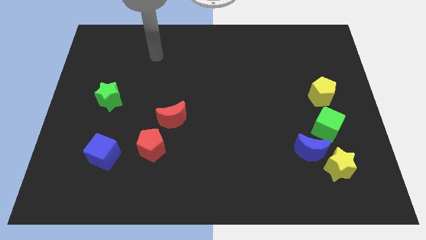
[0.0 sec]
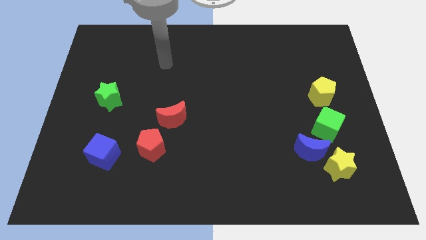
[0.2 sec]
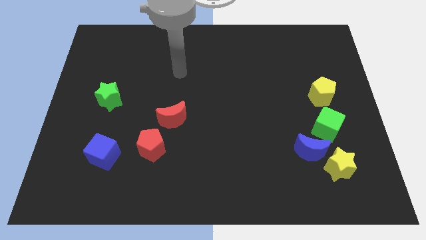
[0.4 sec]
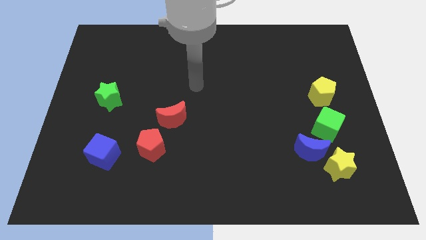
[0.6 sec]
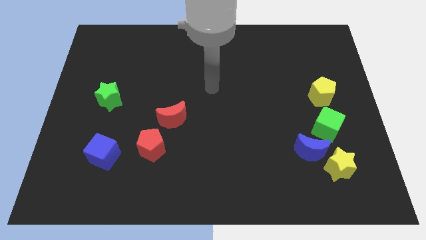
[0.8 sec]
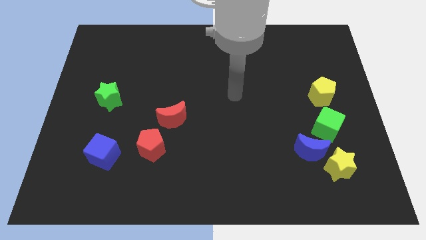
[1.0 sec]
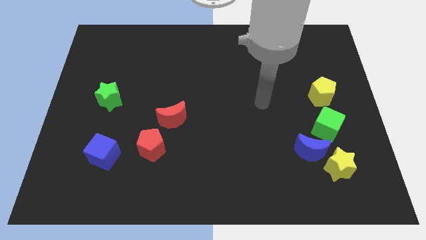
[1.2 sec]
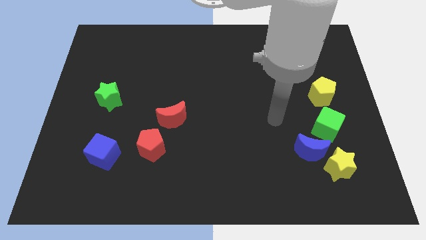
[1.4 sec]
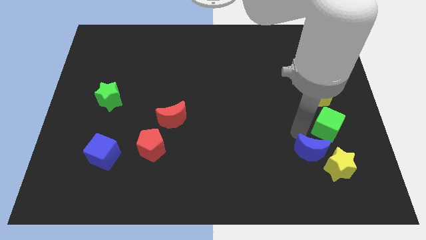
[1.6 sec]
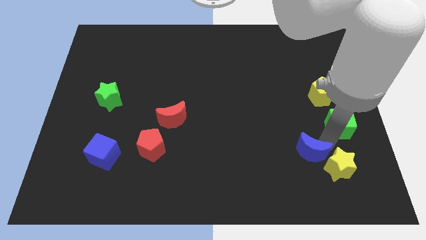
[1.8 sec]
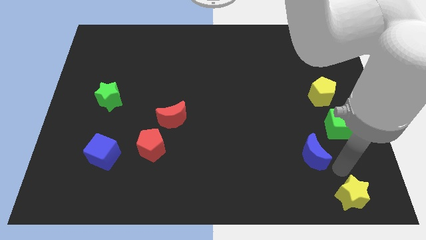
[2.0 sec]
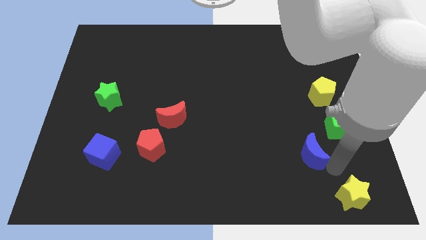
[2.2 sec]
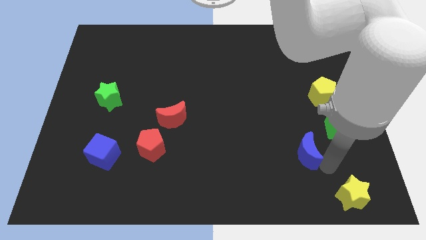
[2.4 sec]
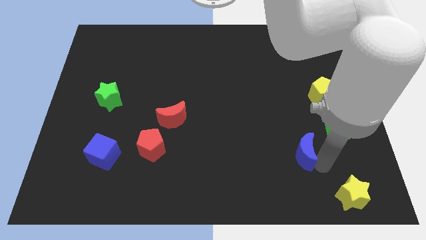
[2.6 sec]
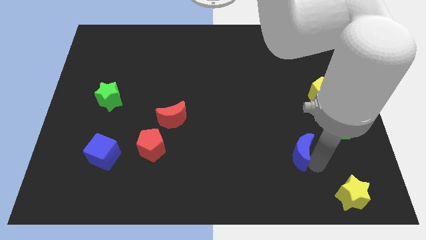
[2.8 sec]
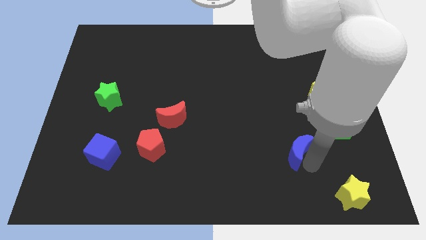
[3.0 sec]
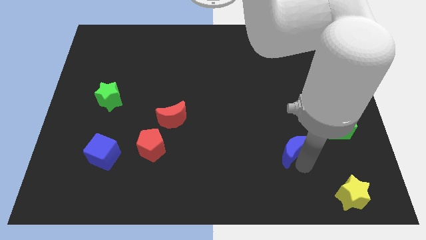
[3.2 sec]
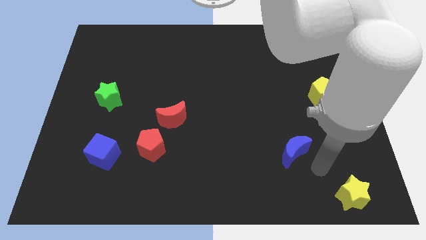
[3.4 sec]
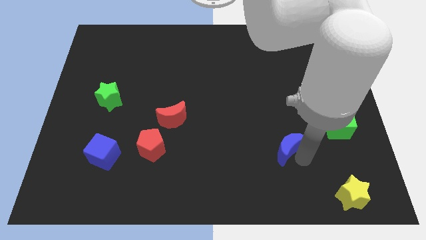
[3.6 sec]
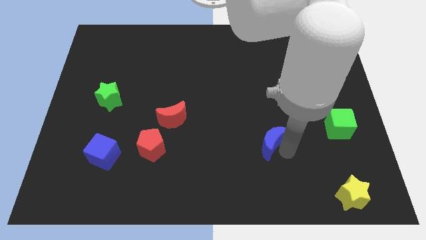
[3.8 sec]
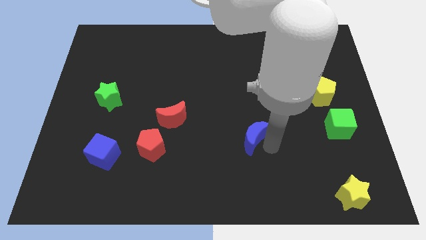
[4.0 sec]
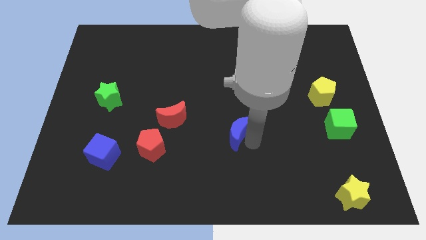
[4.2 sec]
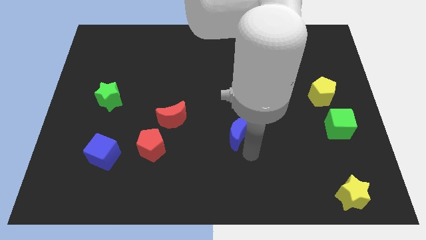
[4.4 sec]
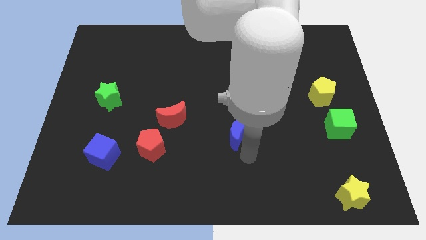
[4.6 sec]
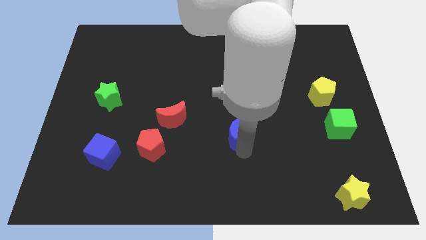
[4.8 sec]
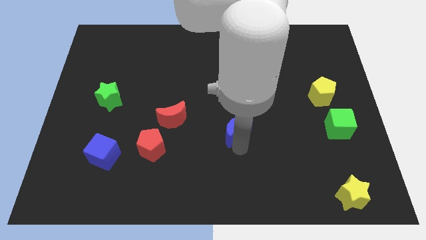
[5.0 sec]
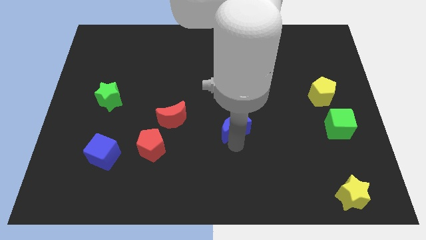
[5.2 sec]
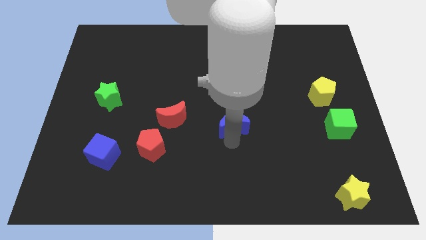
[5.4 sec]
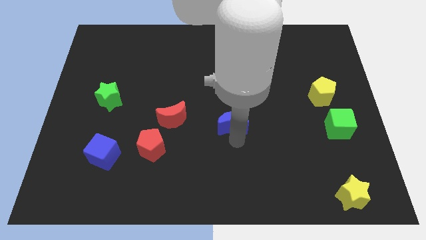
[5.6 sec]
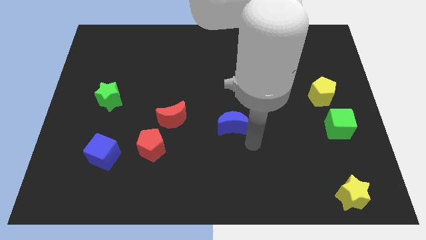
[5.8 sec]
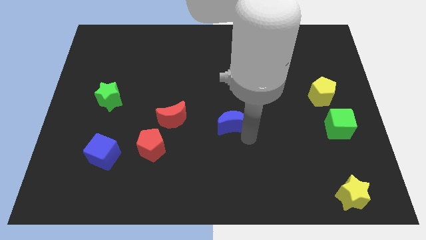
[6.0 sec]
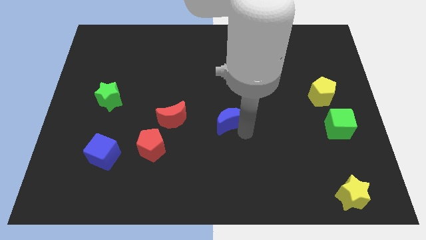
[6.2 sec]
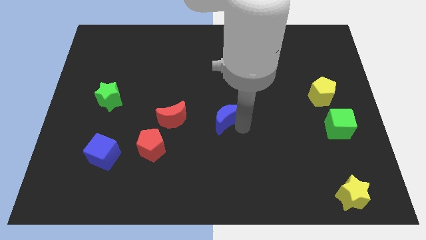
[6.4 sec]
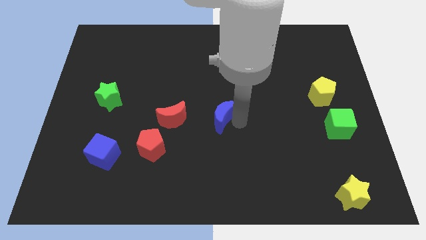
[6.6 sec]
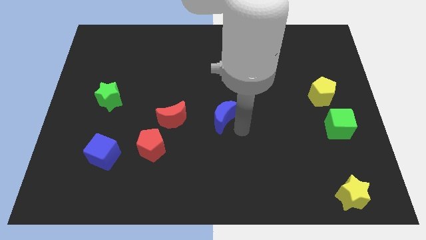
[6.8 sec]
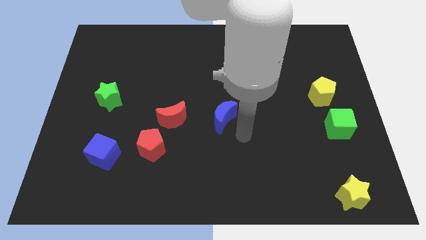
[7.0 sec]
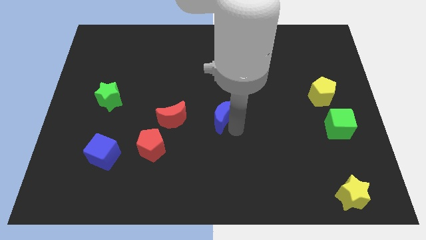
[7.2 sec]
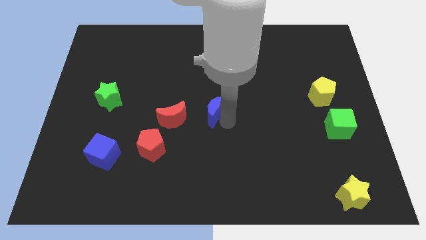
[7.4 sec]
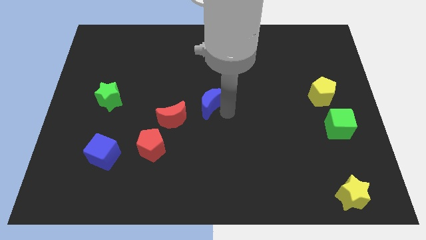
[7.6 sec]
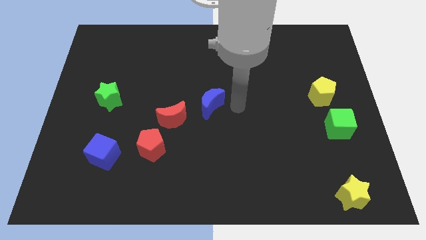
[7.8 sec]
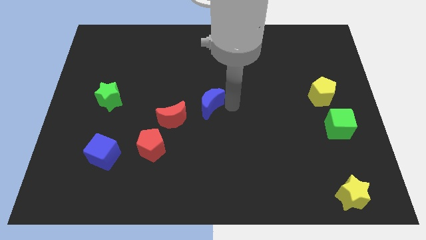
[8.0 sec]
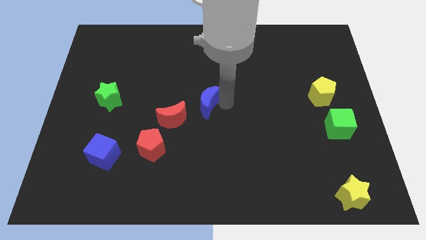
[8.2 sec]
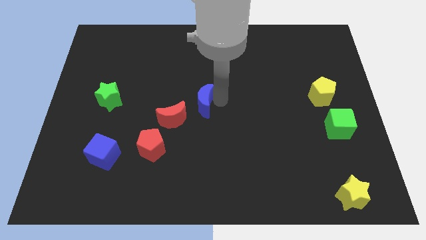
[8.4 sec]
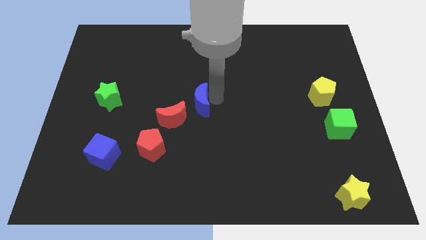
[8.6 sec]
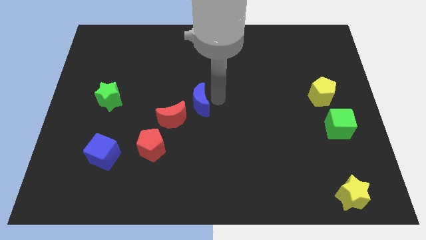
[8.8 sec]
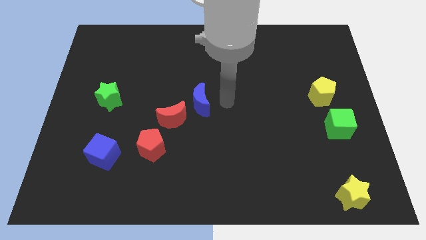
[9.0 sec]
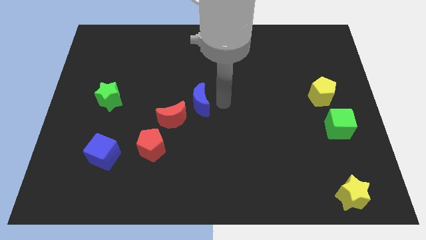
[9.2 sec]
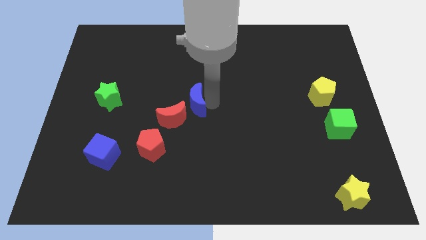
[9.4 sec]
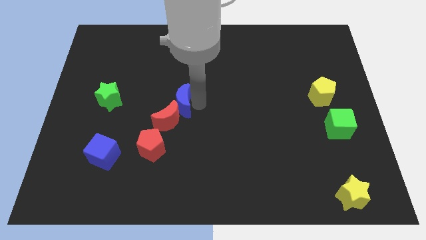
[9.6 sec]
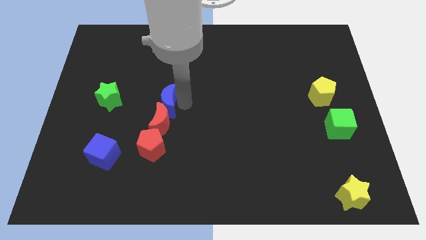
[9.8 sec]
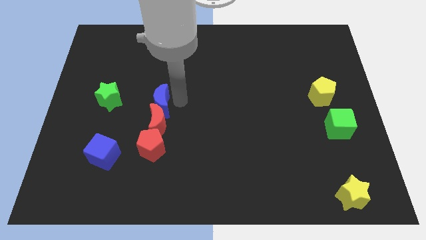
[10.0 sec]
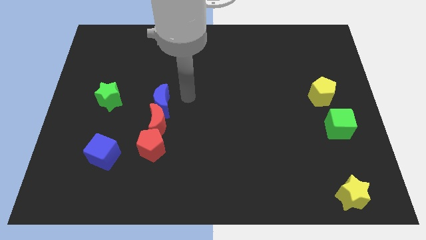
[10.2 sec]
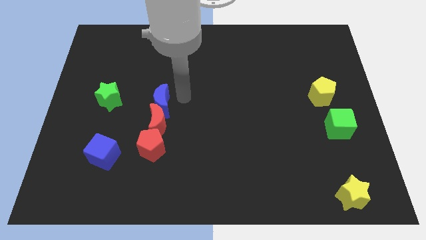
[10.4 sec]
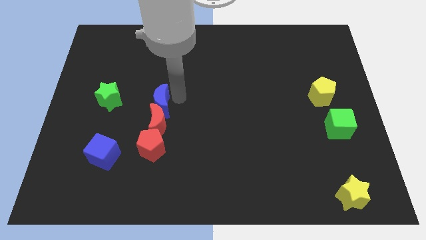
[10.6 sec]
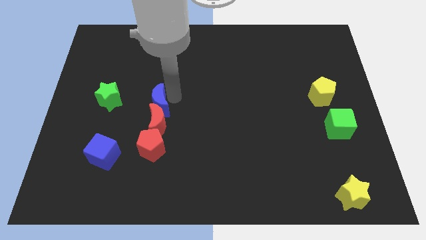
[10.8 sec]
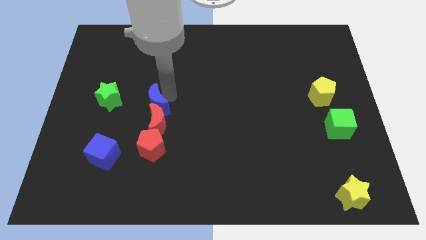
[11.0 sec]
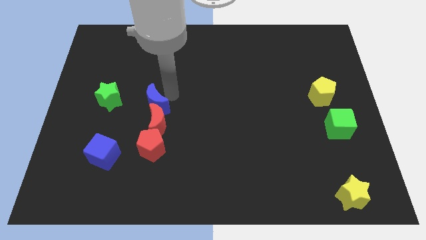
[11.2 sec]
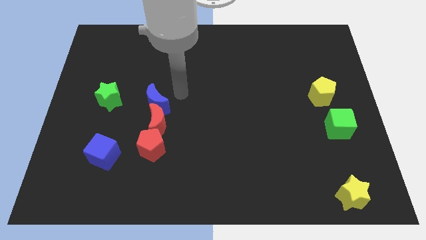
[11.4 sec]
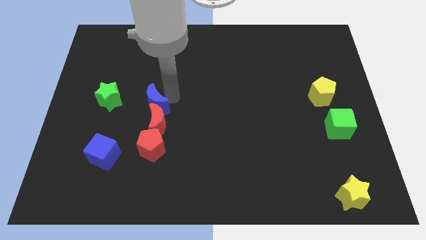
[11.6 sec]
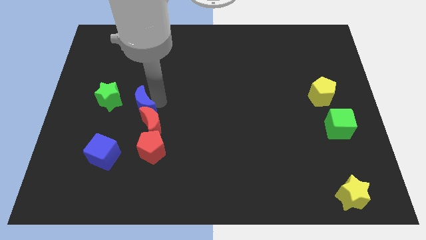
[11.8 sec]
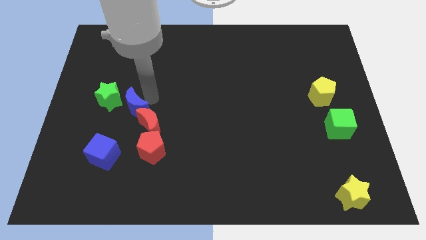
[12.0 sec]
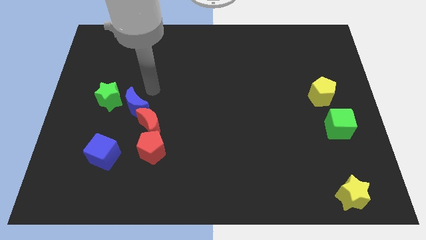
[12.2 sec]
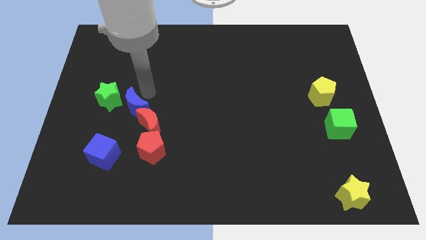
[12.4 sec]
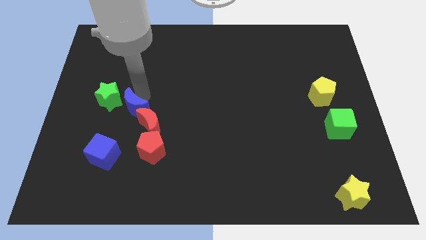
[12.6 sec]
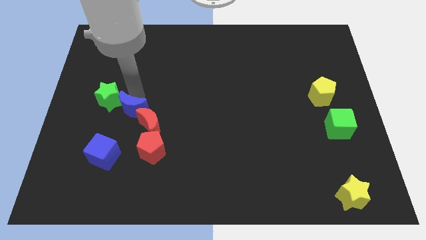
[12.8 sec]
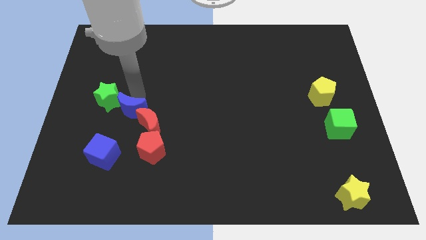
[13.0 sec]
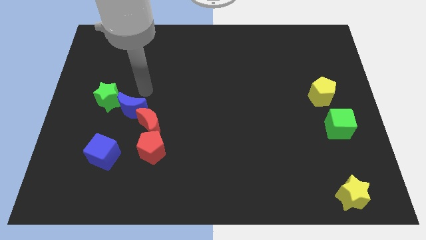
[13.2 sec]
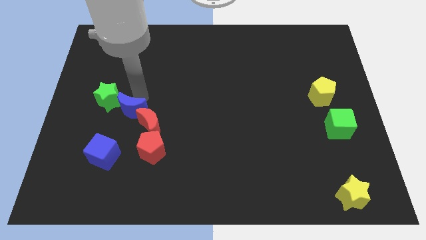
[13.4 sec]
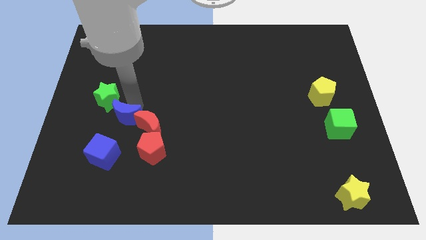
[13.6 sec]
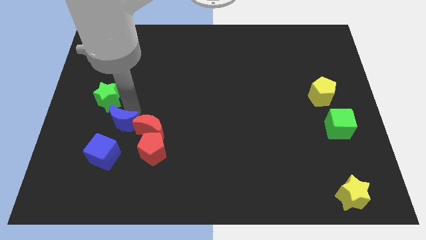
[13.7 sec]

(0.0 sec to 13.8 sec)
put the blue moon below the green star
